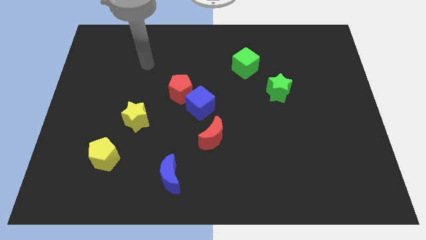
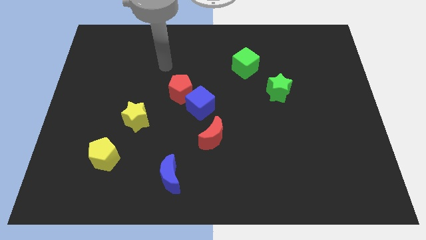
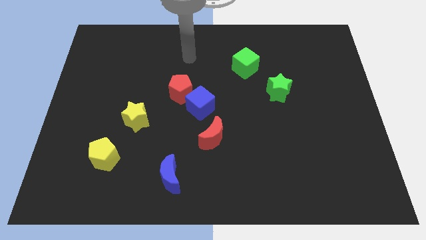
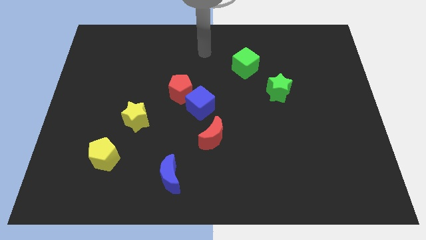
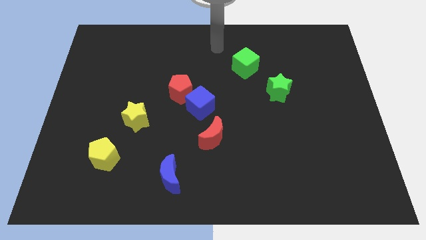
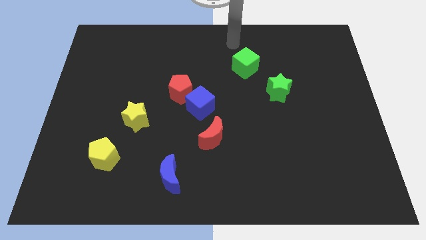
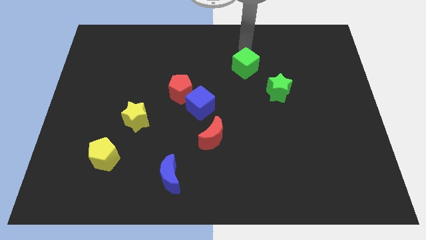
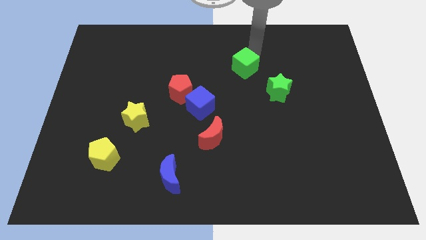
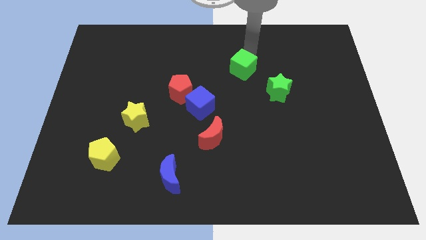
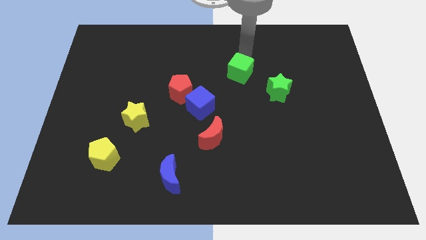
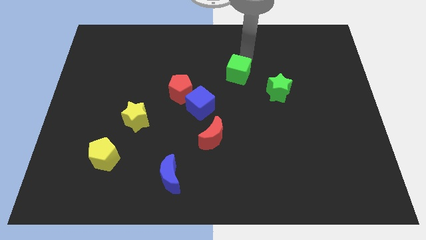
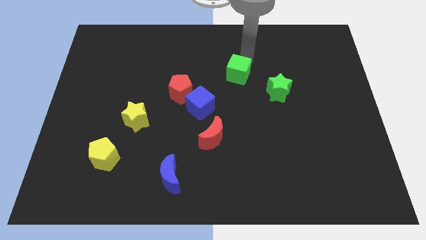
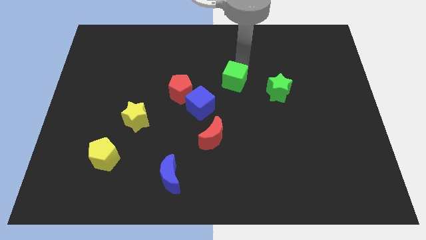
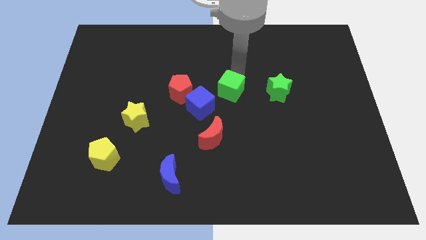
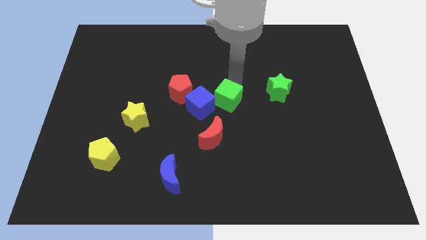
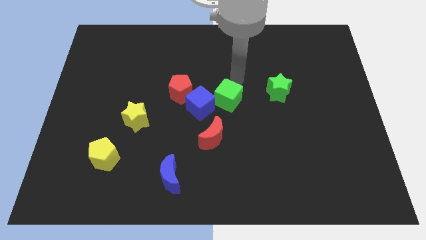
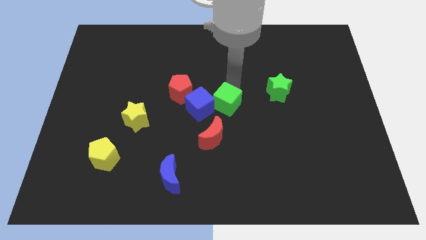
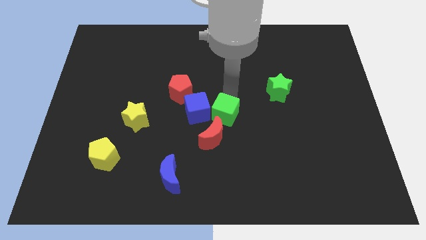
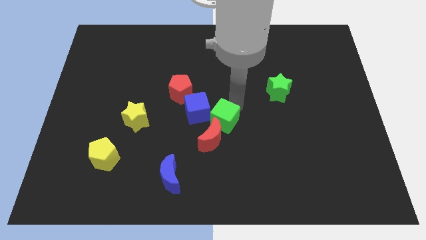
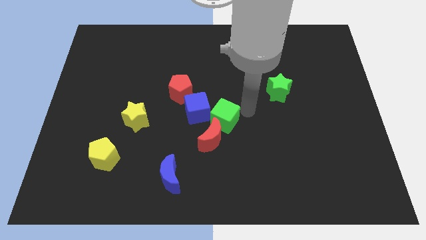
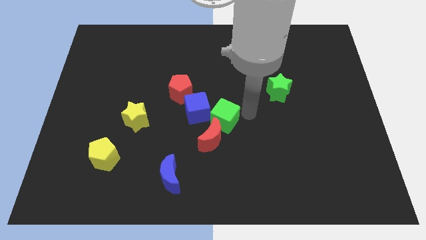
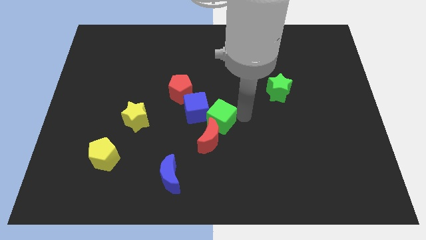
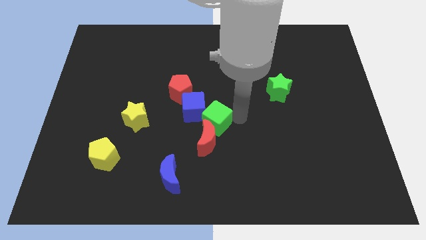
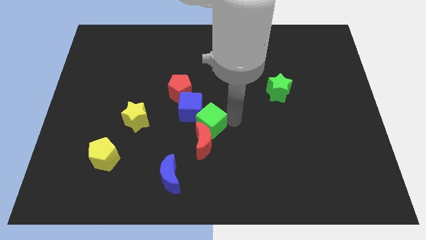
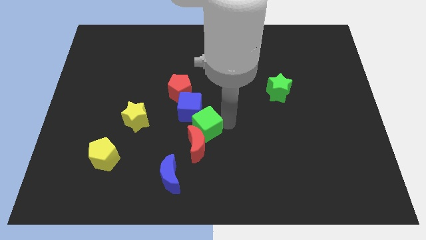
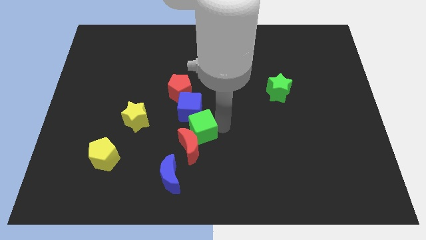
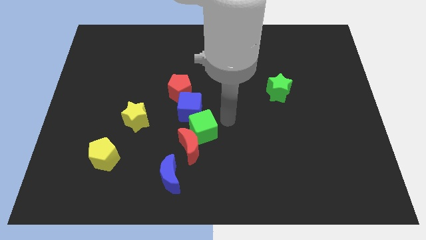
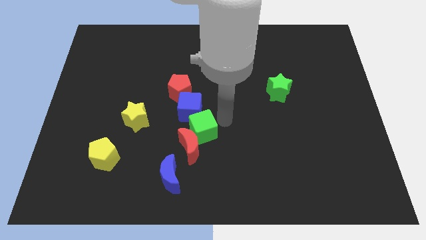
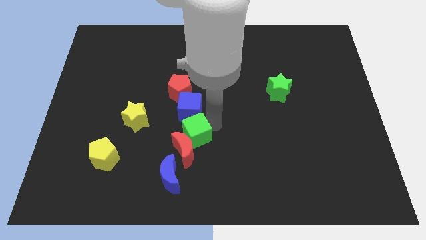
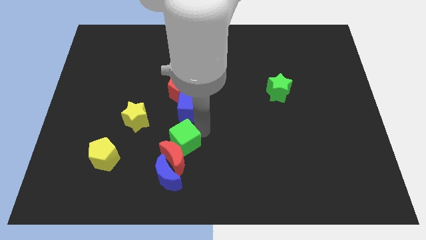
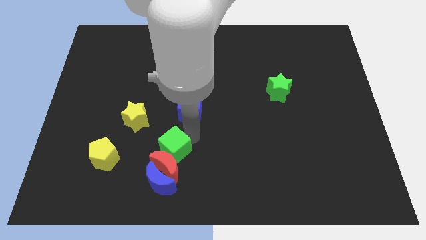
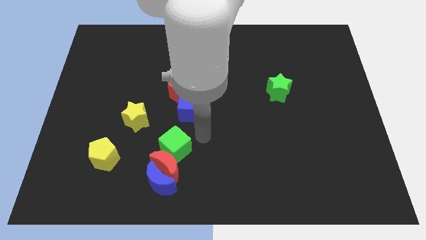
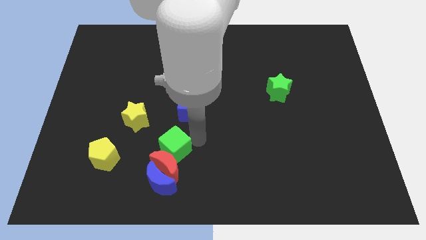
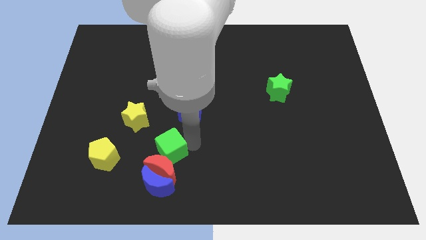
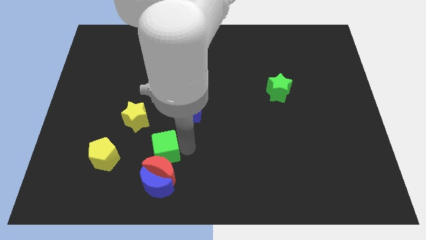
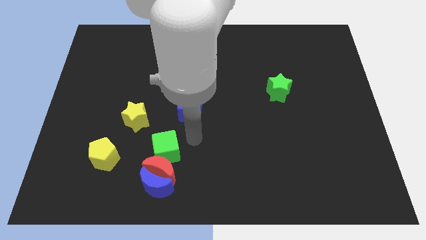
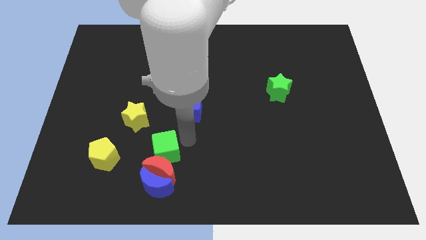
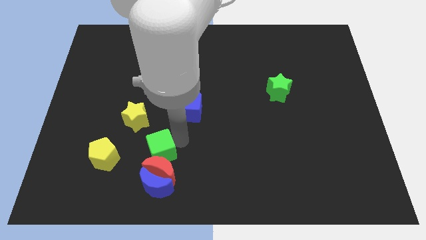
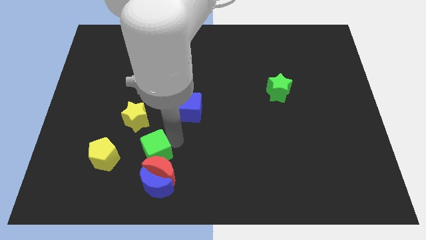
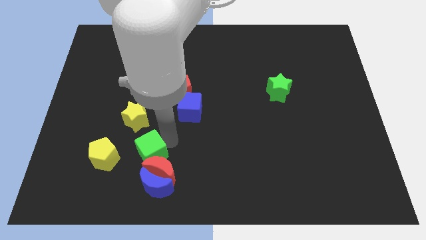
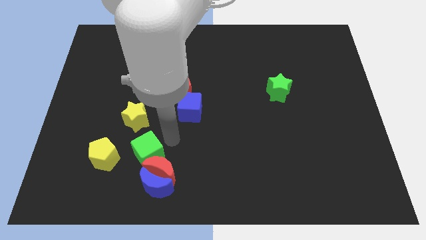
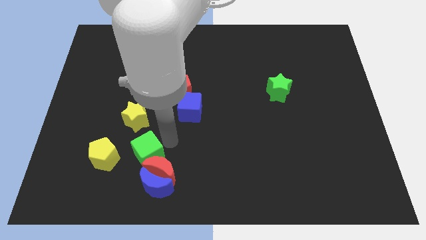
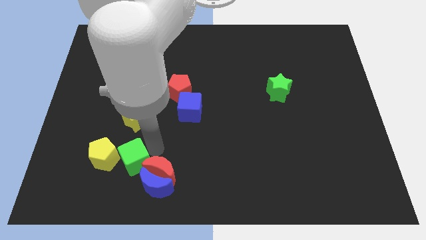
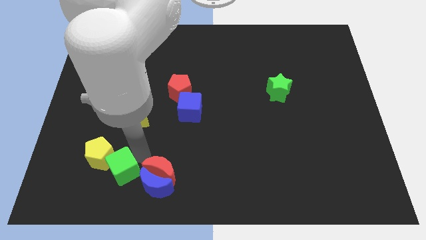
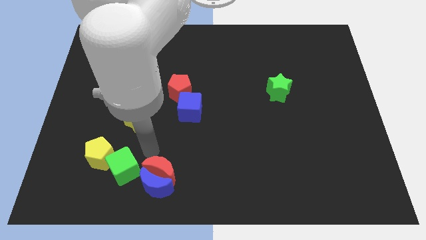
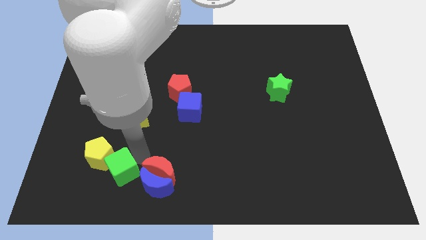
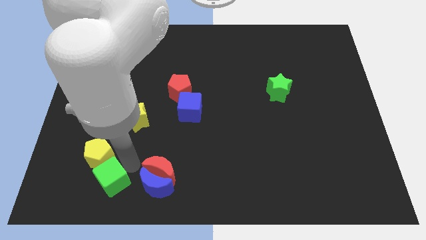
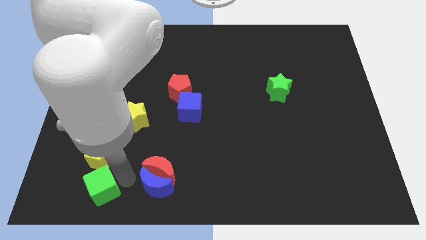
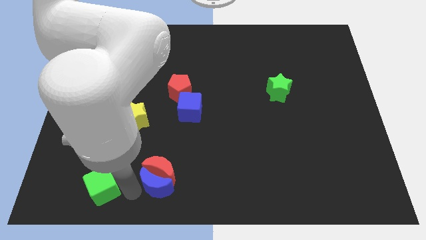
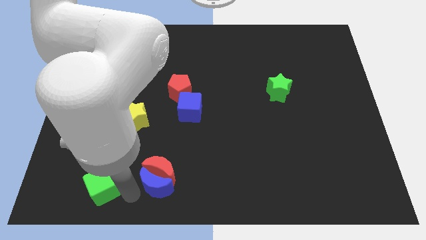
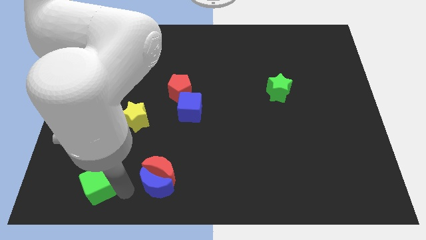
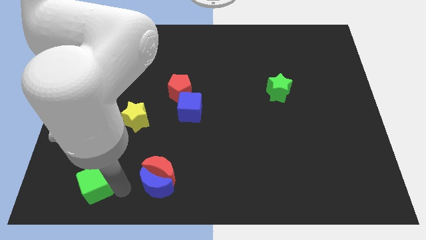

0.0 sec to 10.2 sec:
slide the green cube to the bottom left side of the yellow pentagon

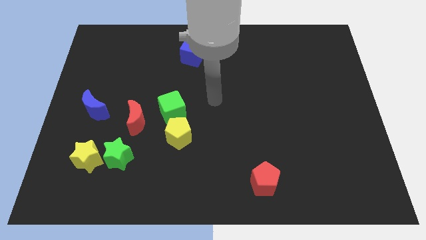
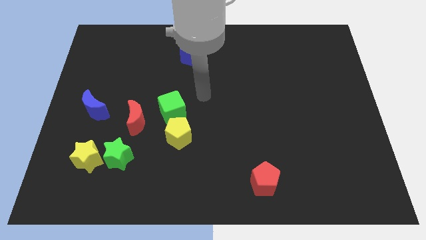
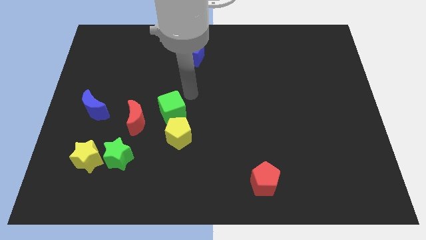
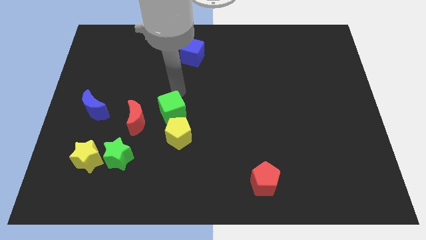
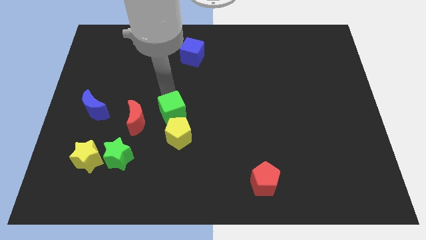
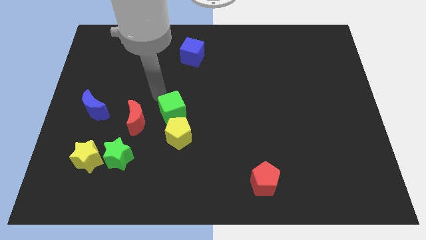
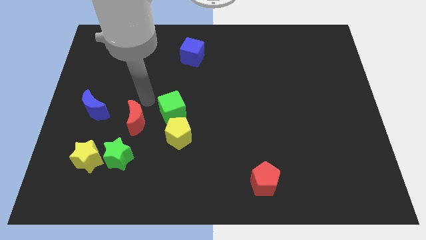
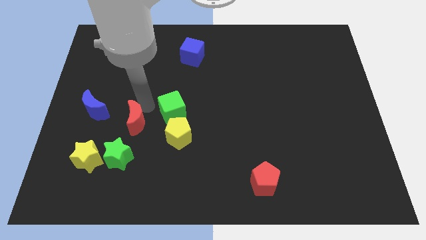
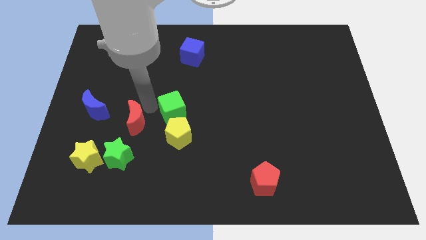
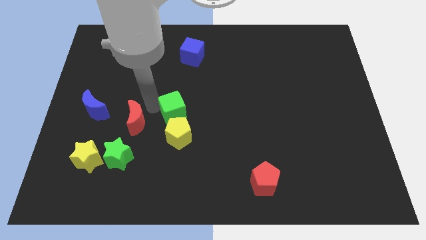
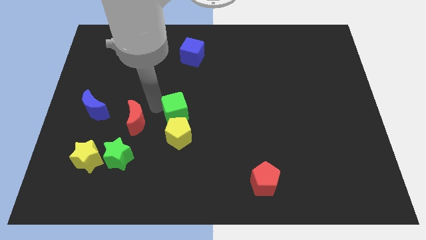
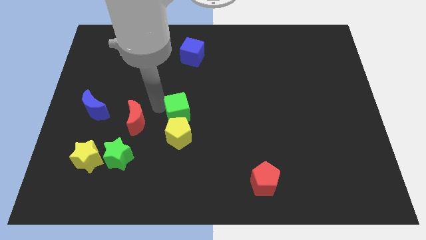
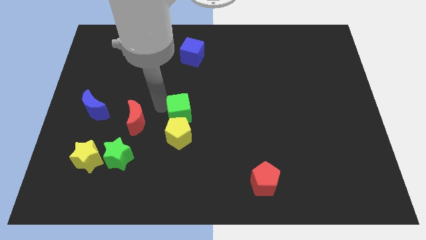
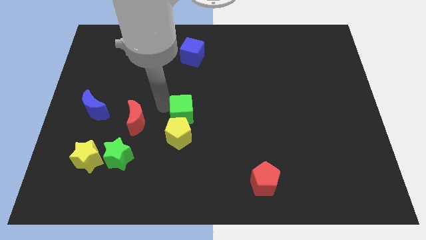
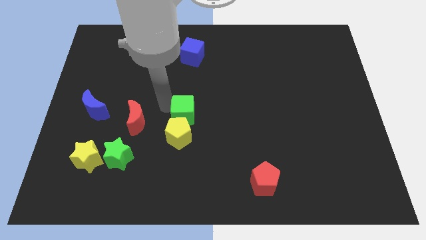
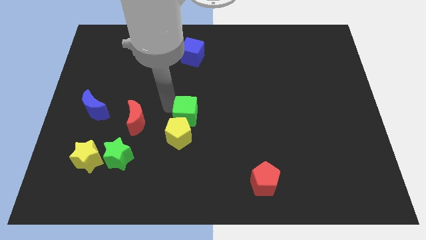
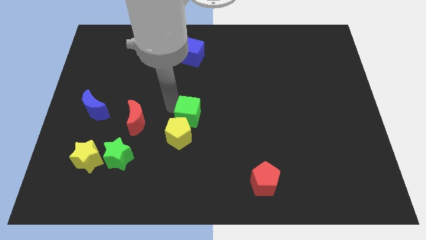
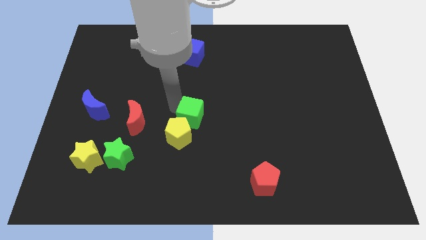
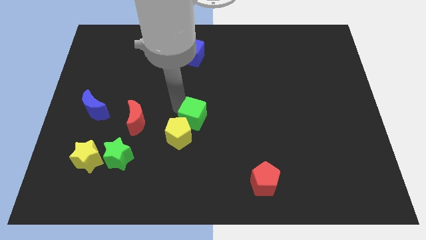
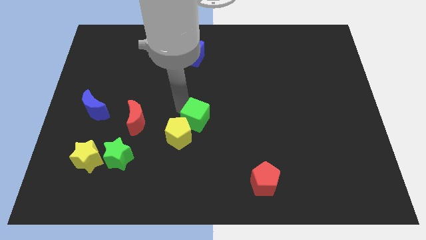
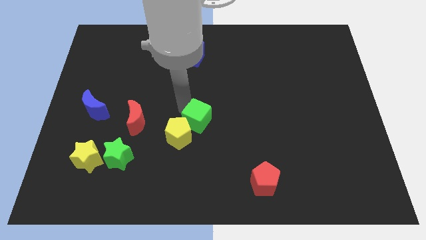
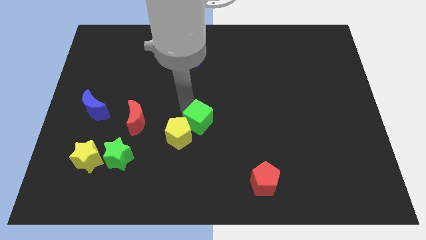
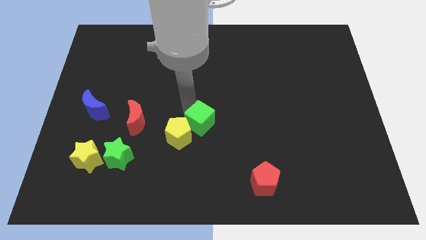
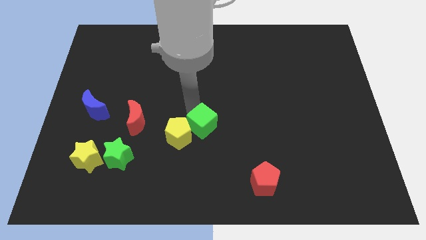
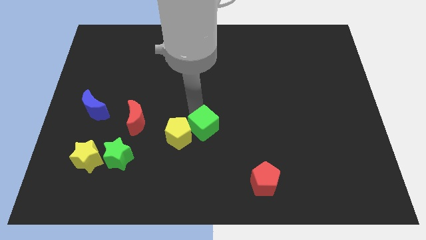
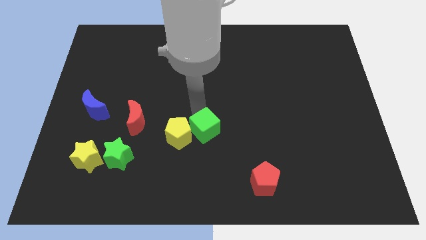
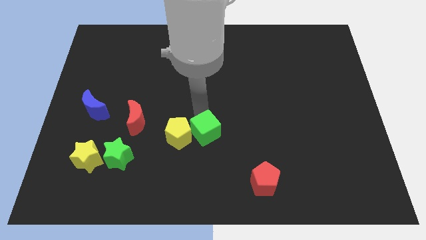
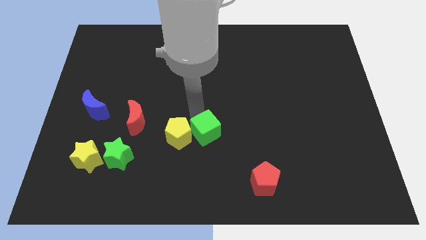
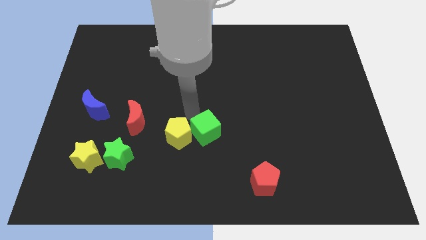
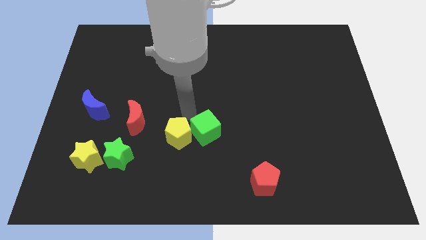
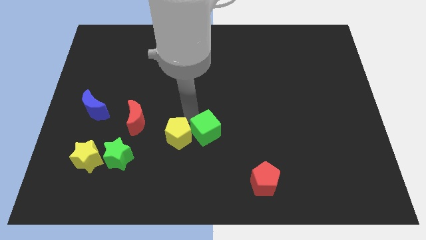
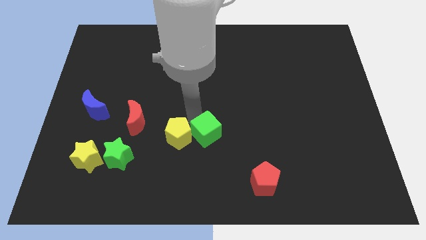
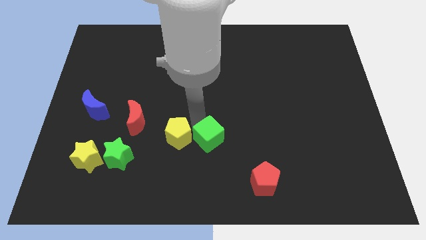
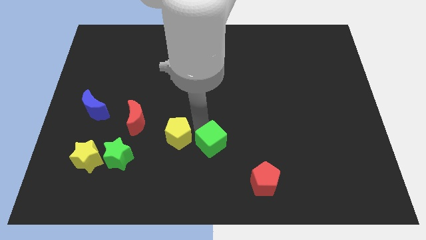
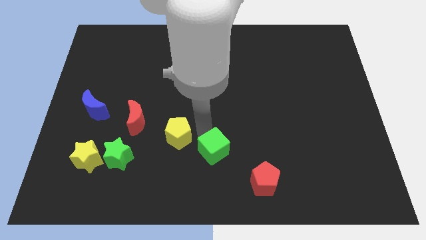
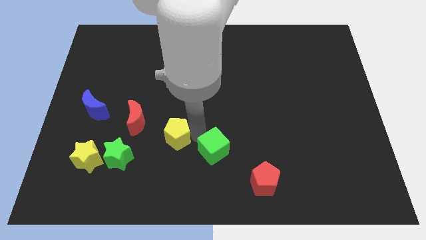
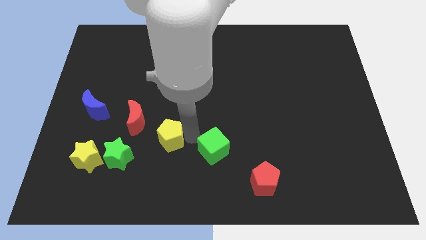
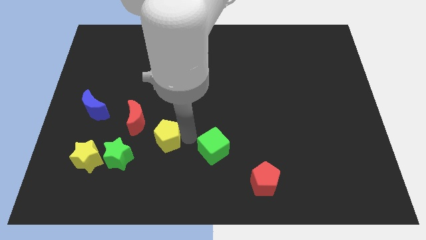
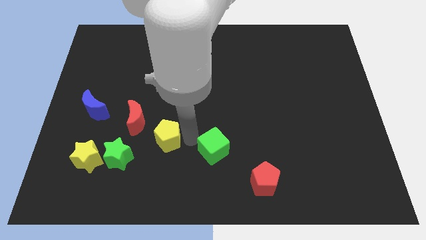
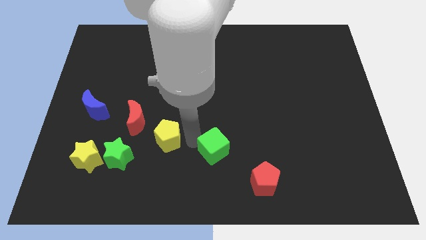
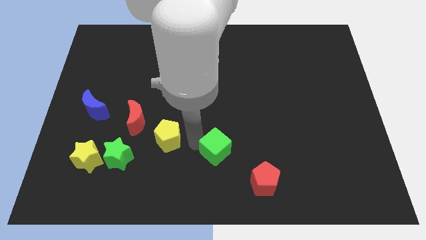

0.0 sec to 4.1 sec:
push the green cube diagonally up and to the left of the red pentagon
